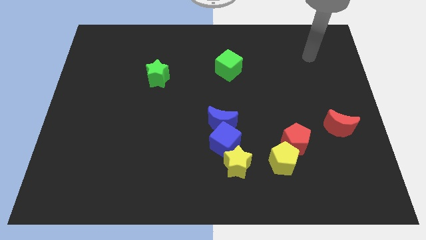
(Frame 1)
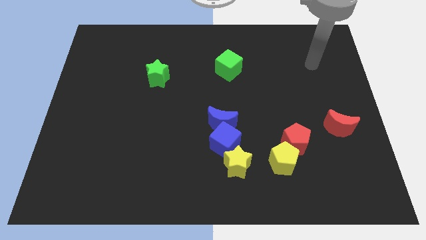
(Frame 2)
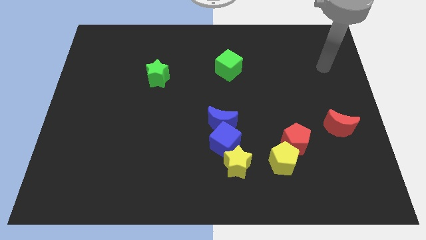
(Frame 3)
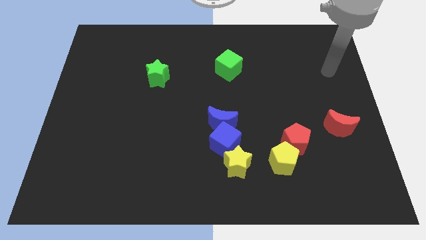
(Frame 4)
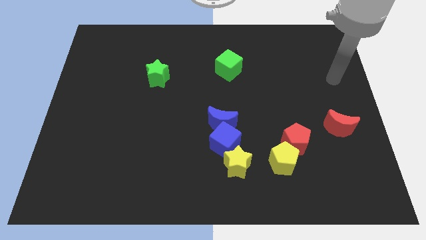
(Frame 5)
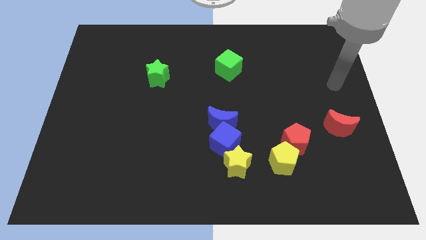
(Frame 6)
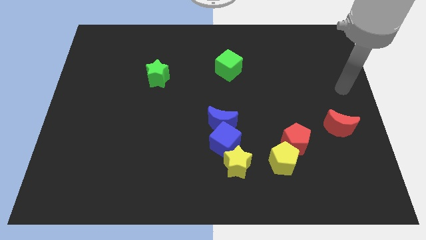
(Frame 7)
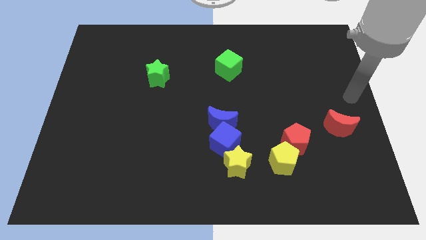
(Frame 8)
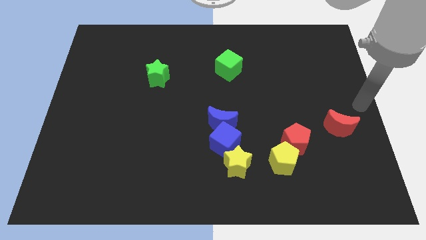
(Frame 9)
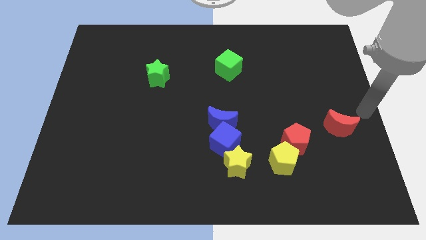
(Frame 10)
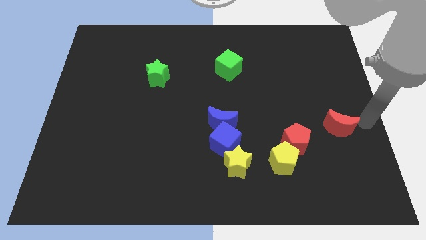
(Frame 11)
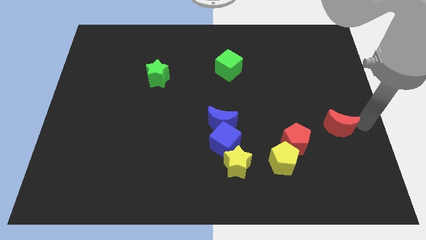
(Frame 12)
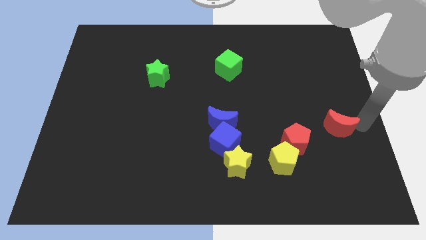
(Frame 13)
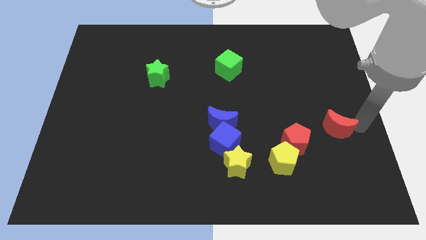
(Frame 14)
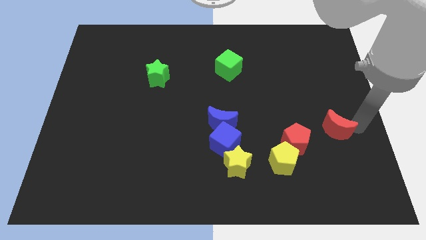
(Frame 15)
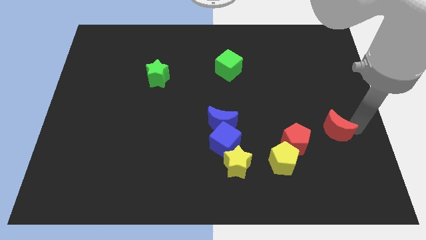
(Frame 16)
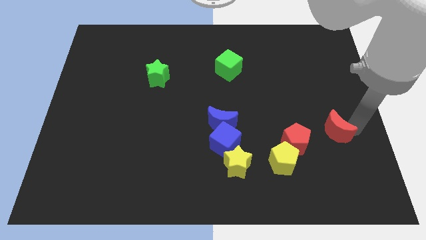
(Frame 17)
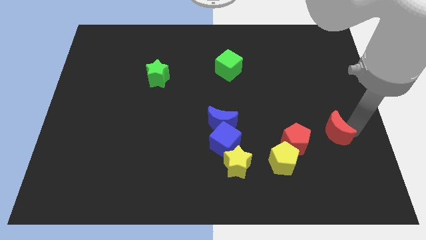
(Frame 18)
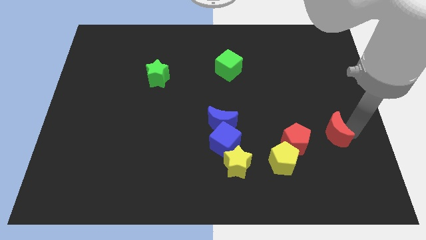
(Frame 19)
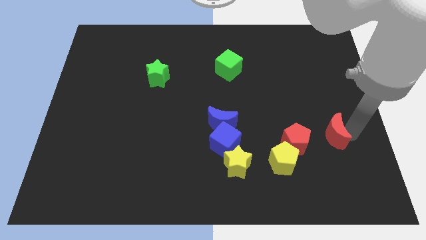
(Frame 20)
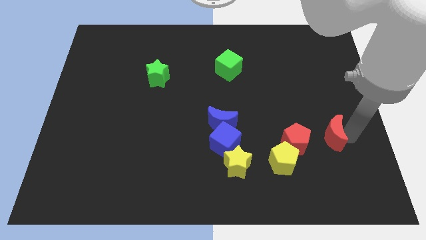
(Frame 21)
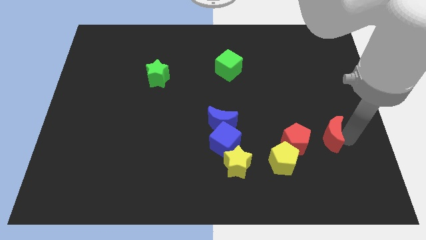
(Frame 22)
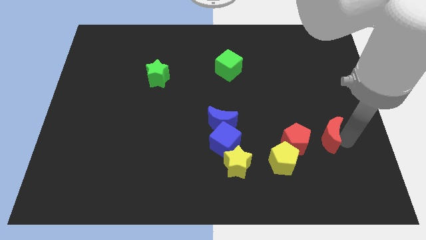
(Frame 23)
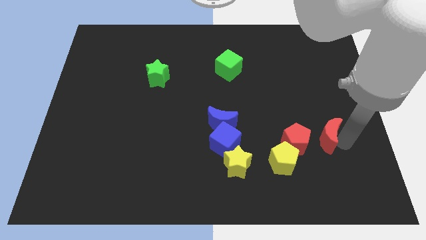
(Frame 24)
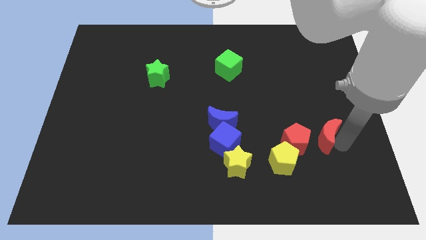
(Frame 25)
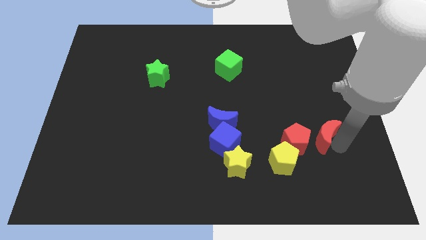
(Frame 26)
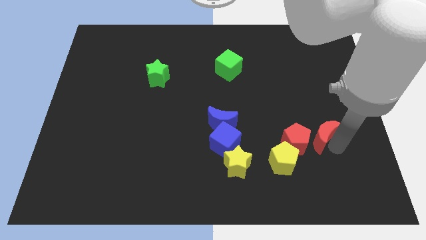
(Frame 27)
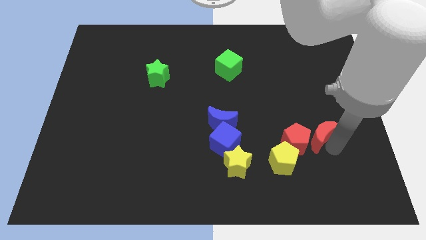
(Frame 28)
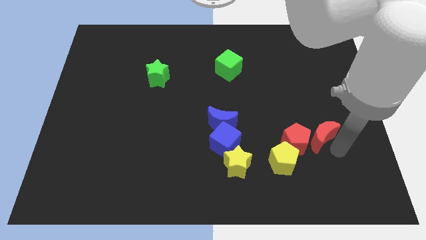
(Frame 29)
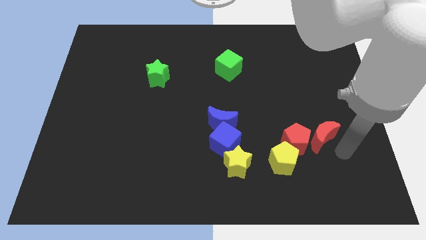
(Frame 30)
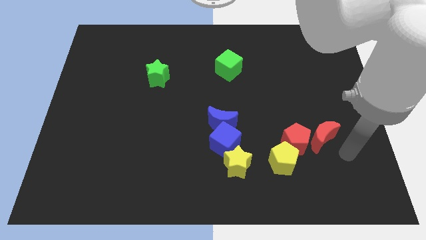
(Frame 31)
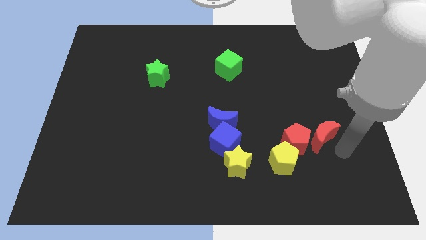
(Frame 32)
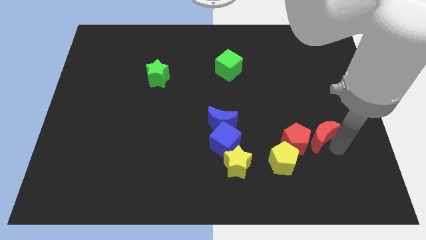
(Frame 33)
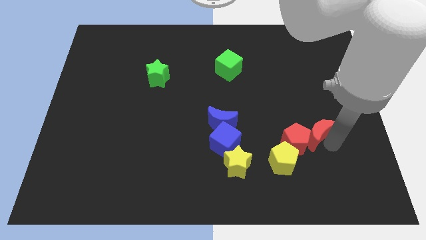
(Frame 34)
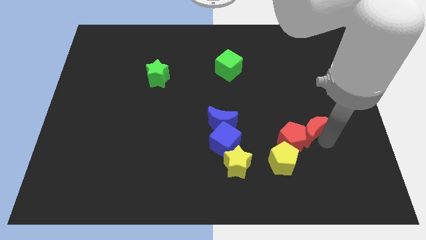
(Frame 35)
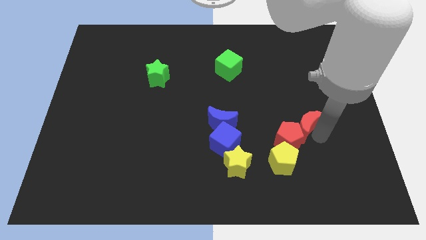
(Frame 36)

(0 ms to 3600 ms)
slide the red moon a bit to the left

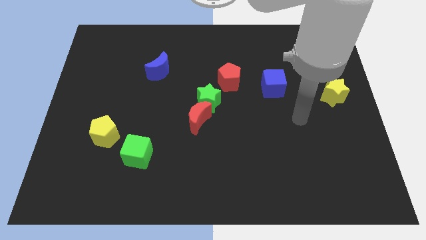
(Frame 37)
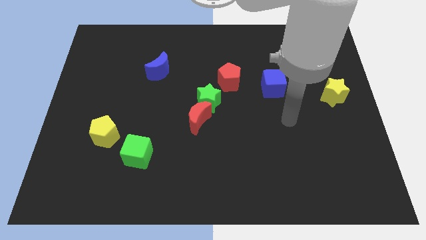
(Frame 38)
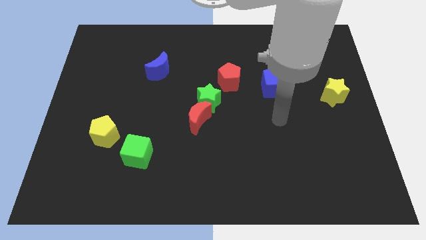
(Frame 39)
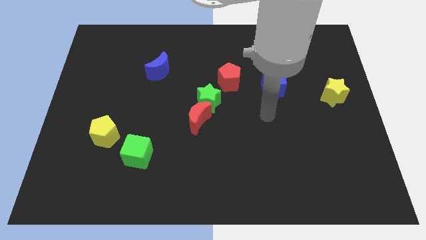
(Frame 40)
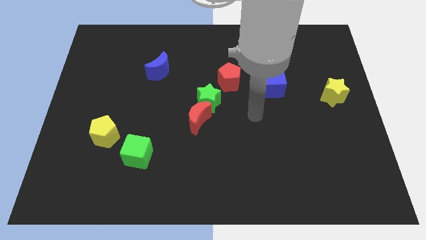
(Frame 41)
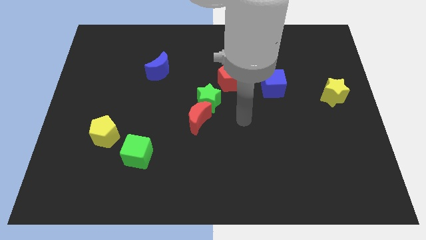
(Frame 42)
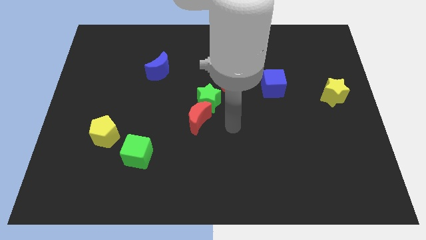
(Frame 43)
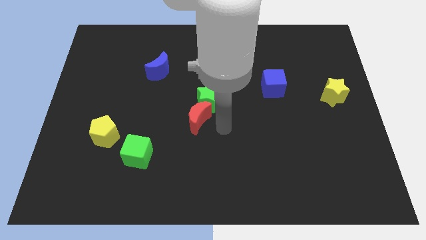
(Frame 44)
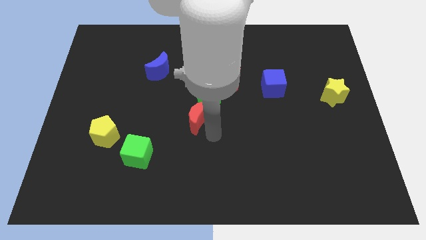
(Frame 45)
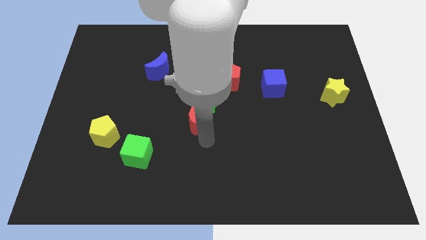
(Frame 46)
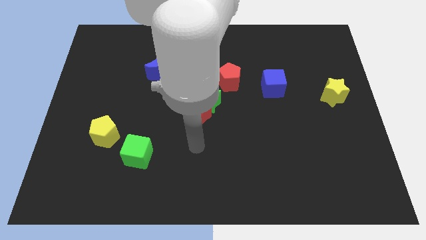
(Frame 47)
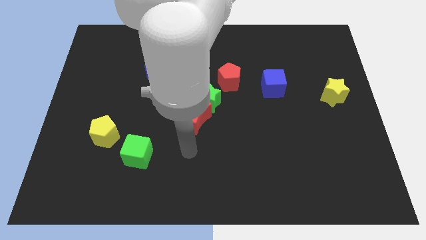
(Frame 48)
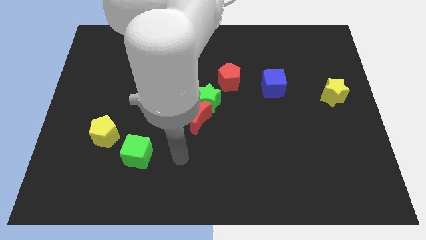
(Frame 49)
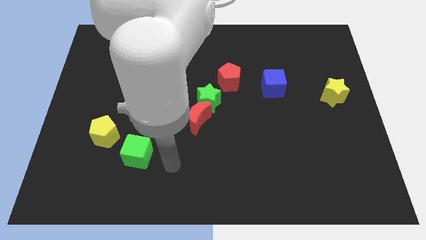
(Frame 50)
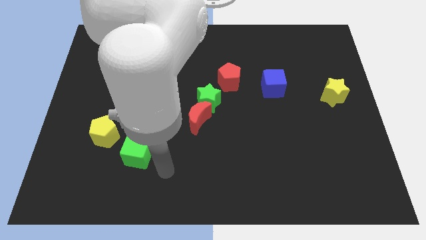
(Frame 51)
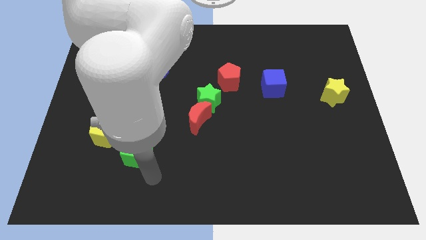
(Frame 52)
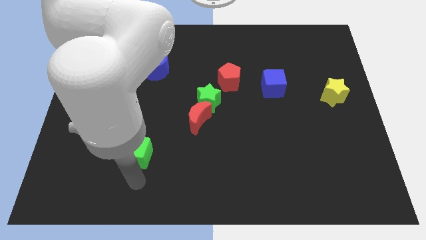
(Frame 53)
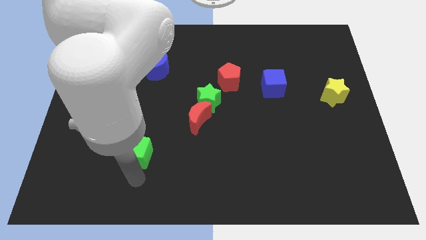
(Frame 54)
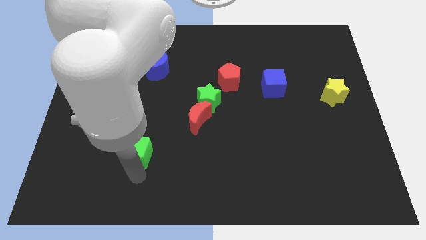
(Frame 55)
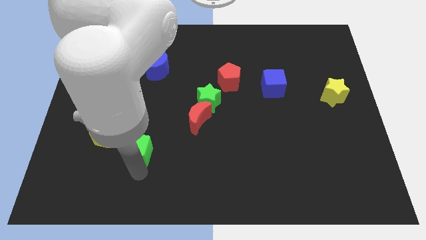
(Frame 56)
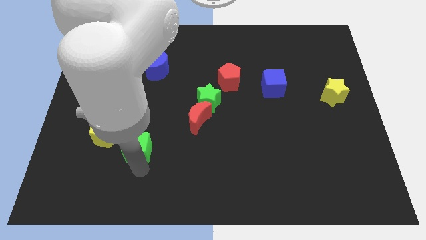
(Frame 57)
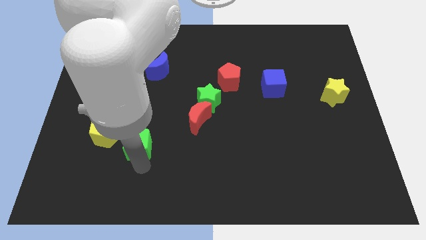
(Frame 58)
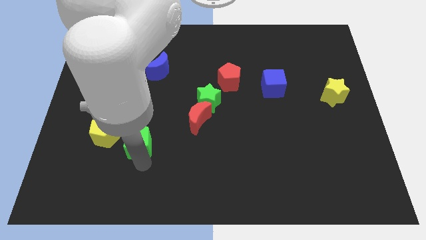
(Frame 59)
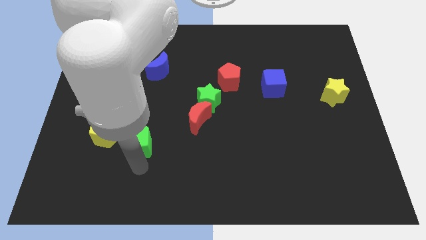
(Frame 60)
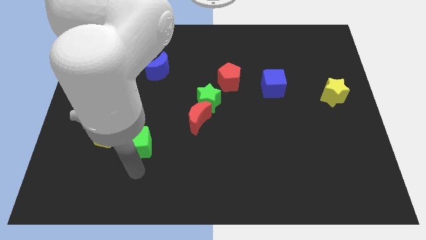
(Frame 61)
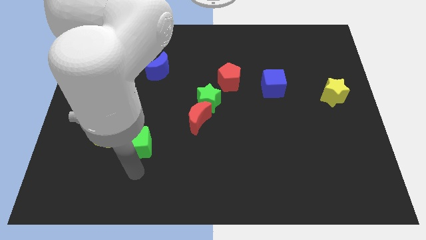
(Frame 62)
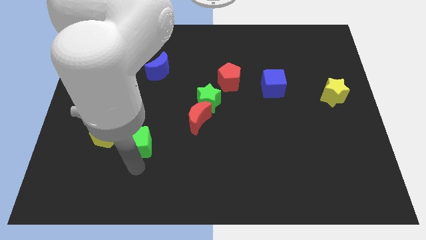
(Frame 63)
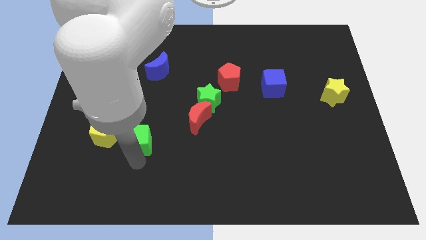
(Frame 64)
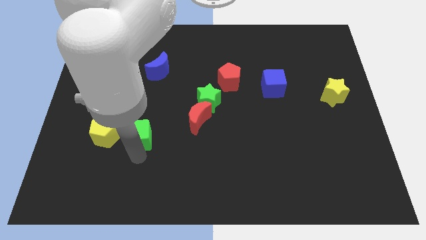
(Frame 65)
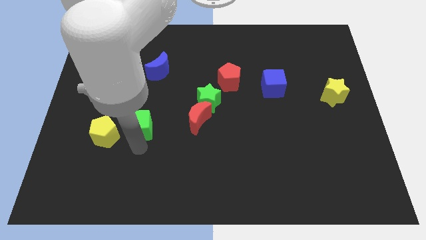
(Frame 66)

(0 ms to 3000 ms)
move the green cube a little bit up

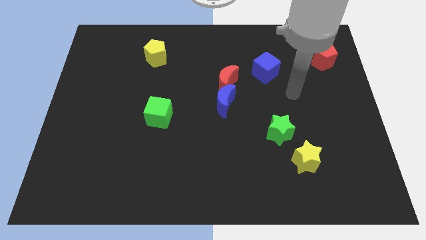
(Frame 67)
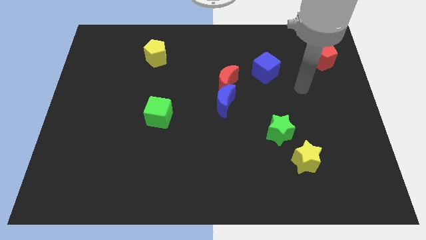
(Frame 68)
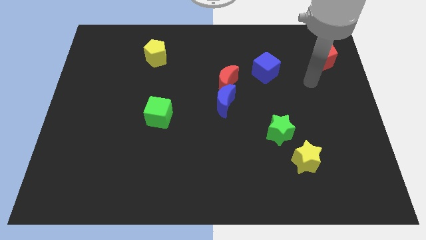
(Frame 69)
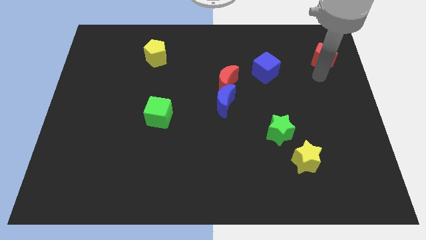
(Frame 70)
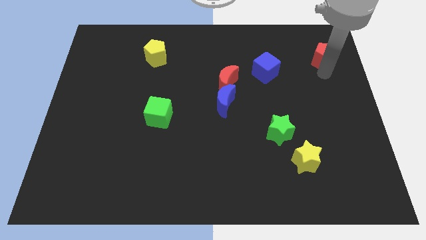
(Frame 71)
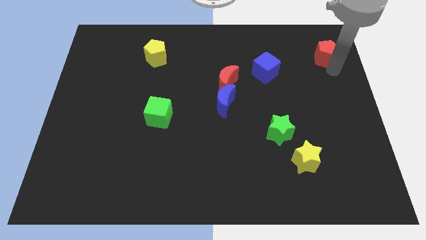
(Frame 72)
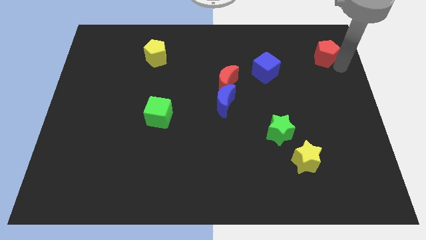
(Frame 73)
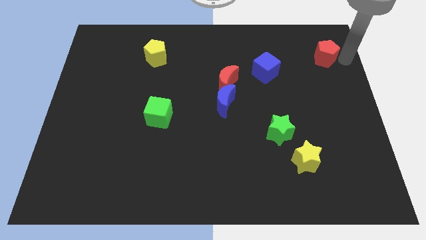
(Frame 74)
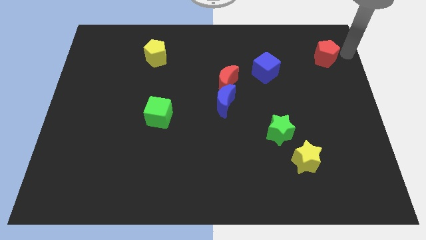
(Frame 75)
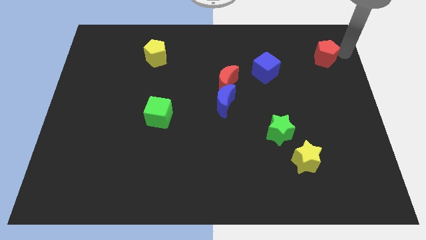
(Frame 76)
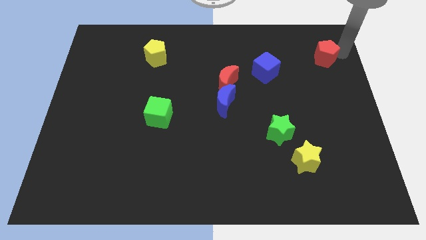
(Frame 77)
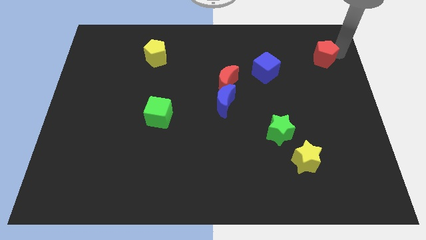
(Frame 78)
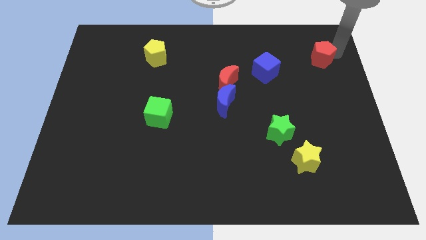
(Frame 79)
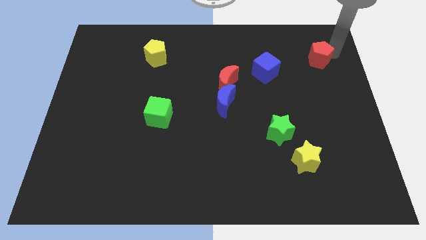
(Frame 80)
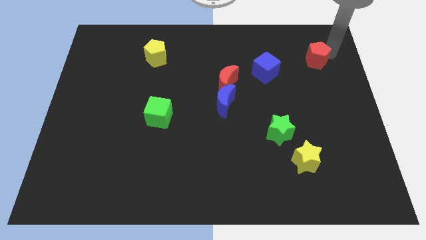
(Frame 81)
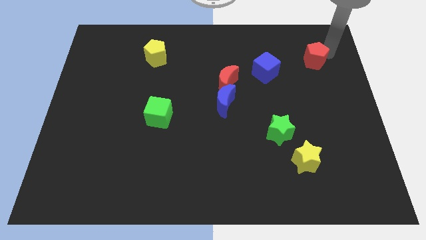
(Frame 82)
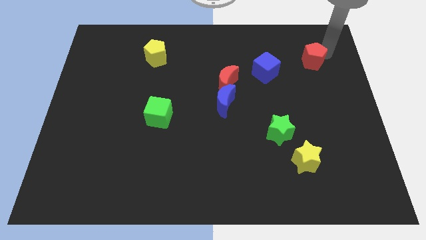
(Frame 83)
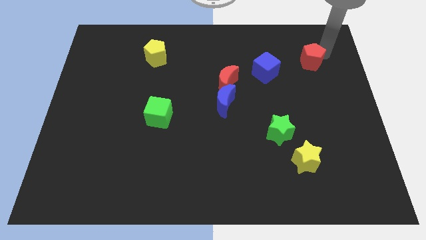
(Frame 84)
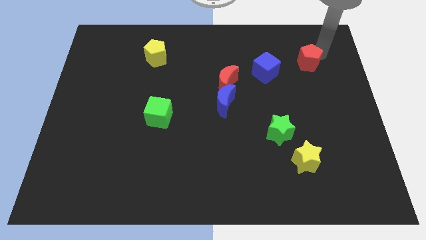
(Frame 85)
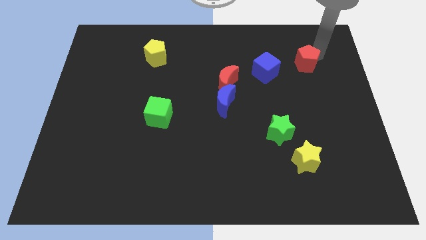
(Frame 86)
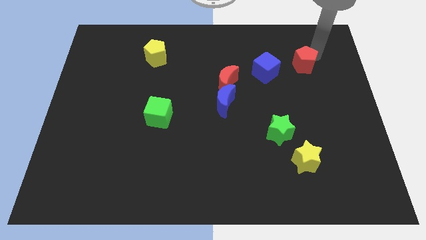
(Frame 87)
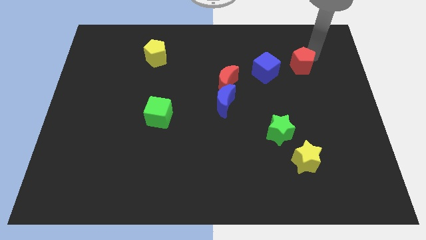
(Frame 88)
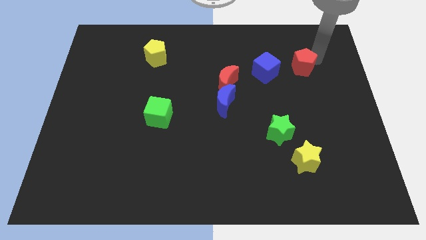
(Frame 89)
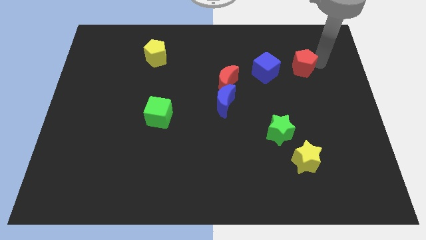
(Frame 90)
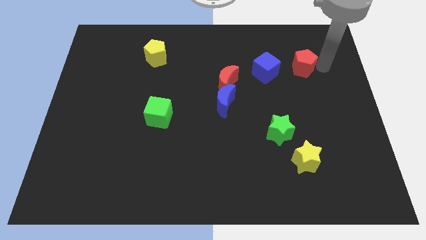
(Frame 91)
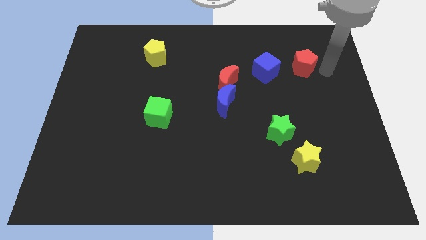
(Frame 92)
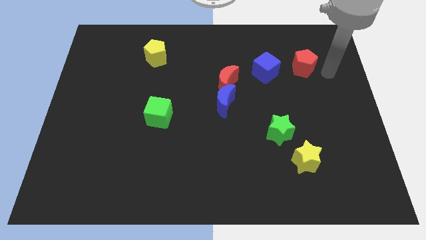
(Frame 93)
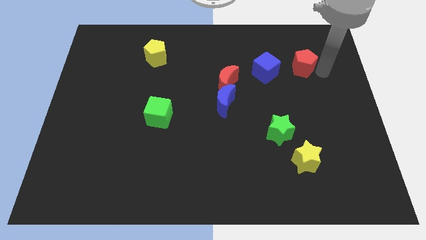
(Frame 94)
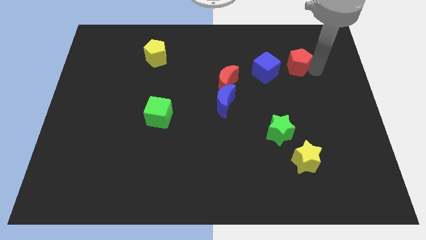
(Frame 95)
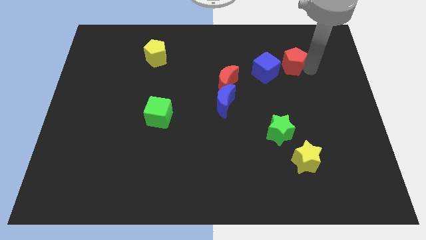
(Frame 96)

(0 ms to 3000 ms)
slightly push the red pentagon left
